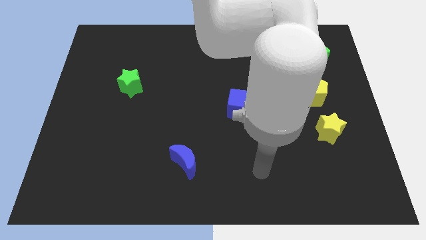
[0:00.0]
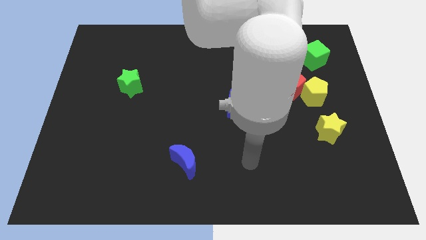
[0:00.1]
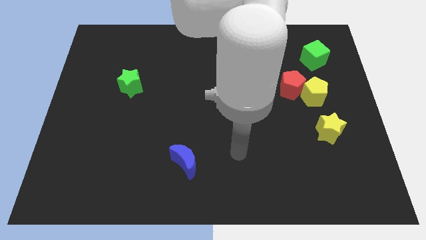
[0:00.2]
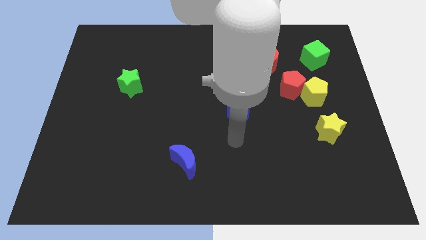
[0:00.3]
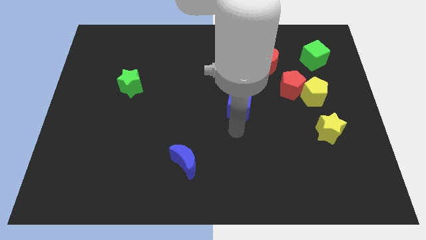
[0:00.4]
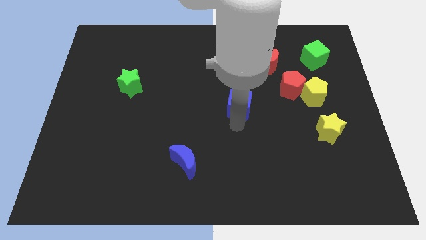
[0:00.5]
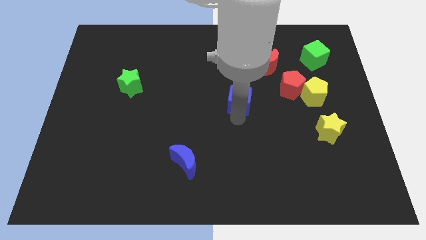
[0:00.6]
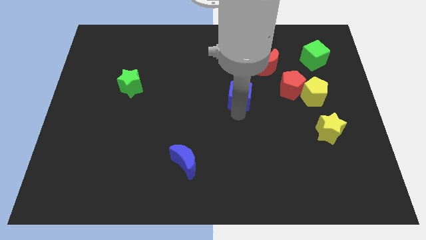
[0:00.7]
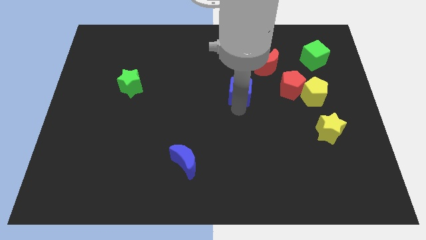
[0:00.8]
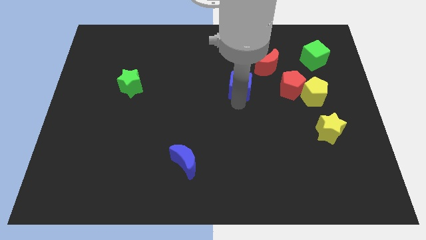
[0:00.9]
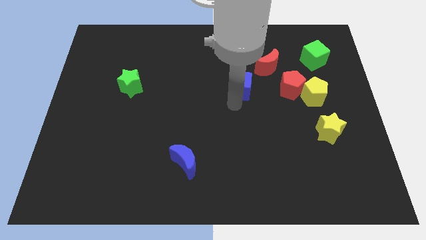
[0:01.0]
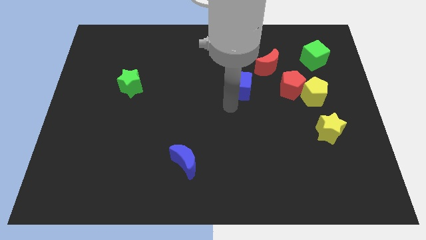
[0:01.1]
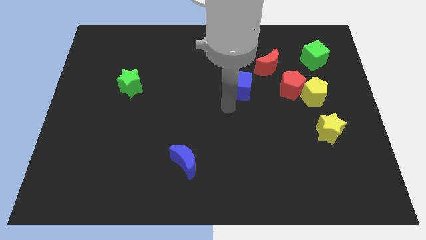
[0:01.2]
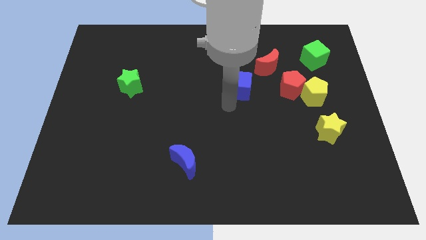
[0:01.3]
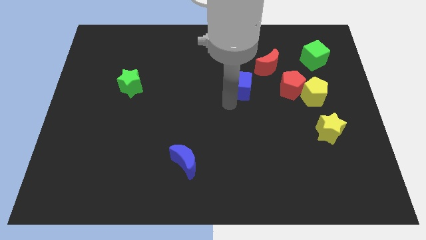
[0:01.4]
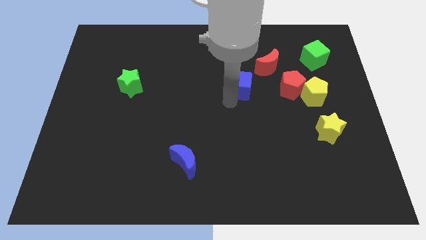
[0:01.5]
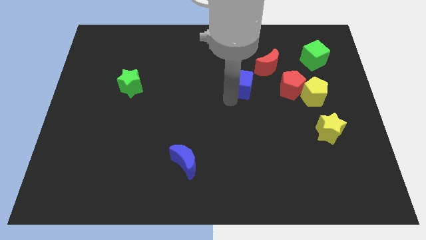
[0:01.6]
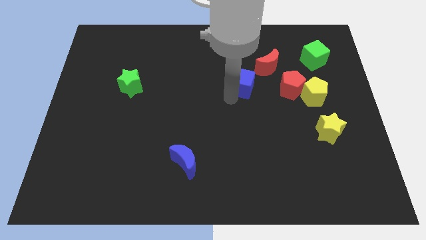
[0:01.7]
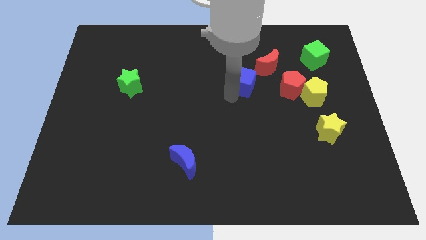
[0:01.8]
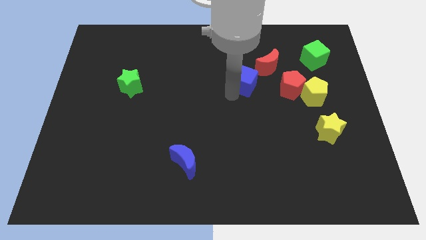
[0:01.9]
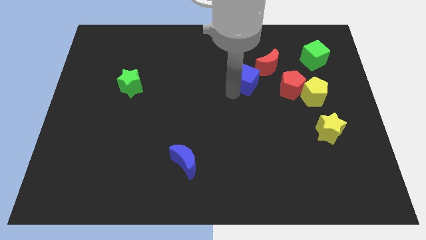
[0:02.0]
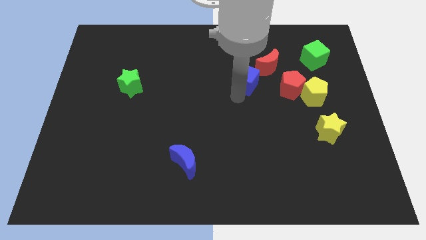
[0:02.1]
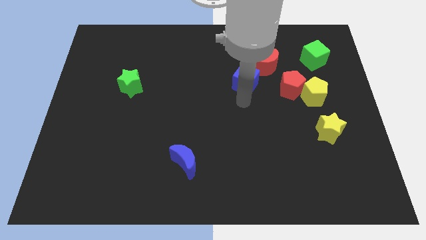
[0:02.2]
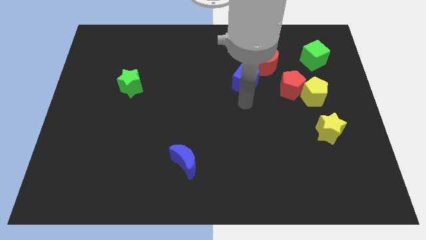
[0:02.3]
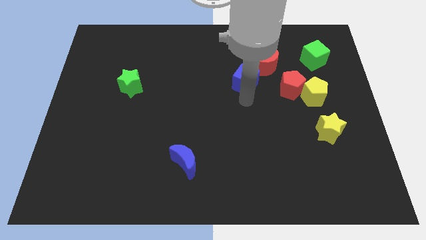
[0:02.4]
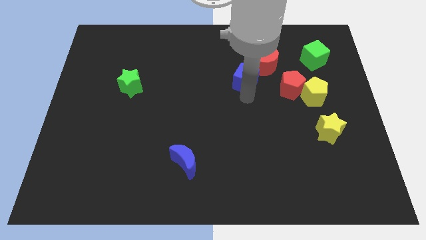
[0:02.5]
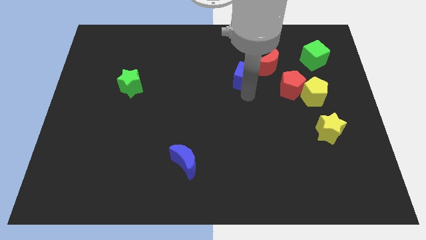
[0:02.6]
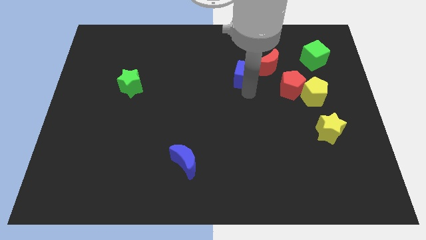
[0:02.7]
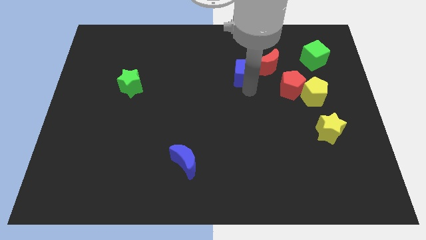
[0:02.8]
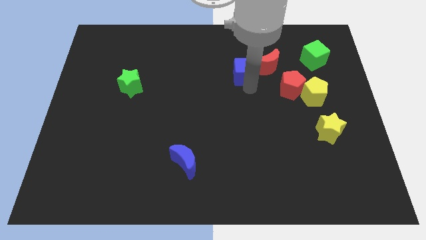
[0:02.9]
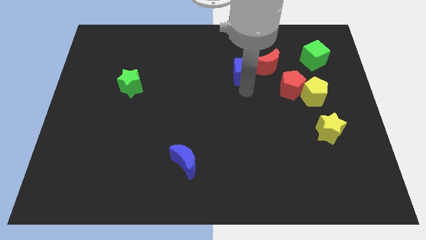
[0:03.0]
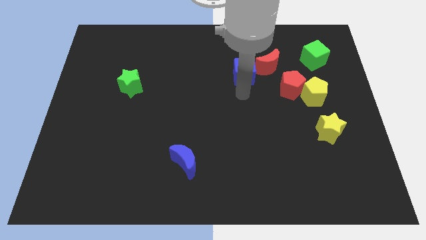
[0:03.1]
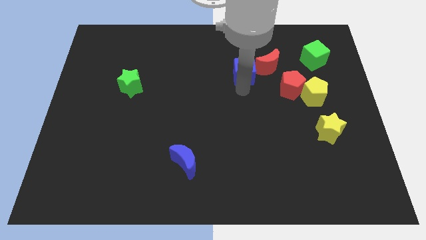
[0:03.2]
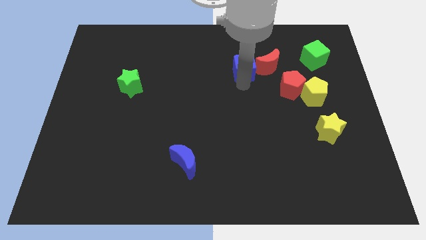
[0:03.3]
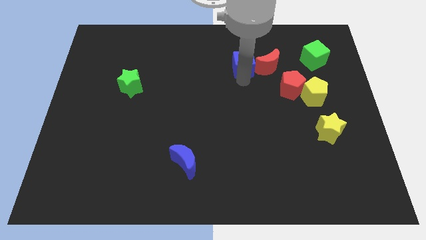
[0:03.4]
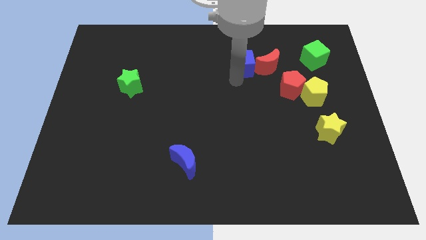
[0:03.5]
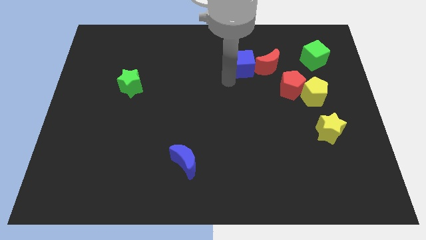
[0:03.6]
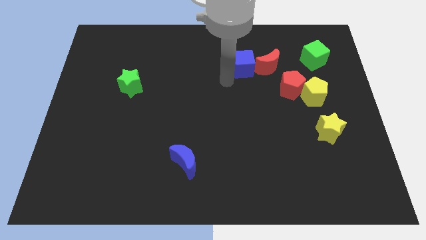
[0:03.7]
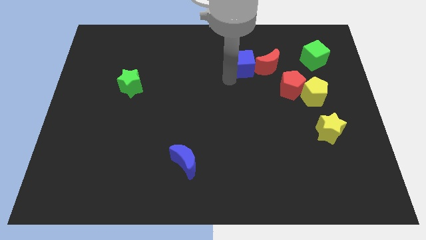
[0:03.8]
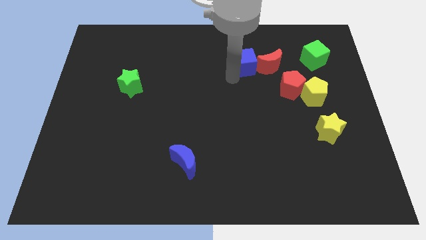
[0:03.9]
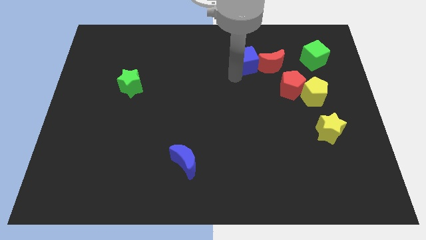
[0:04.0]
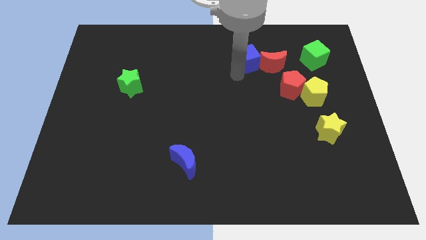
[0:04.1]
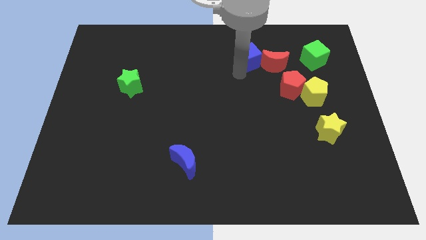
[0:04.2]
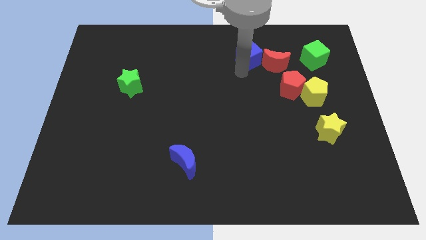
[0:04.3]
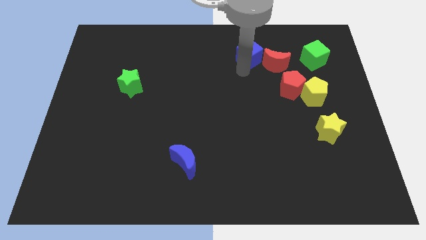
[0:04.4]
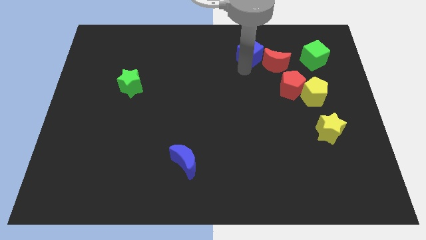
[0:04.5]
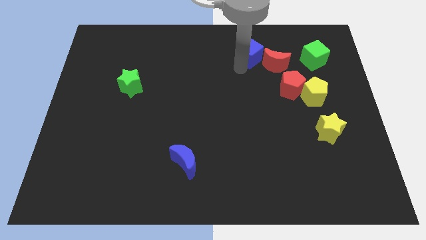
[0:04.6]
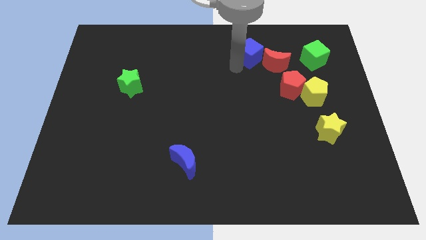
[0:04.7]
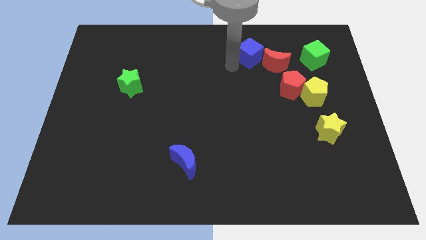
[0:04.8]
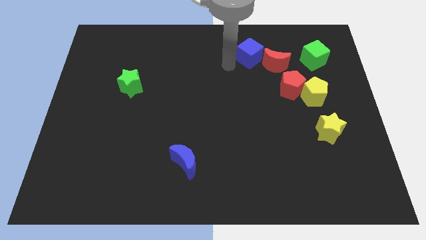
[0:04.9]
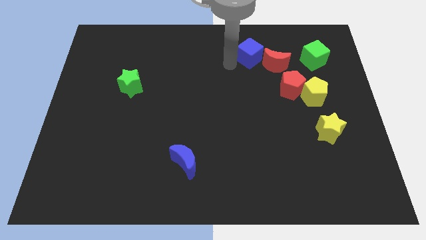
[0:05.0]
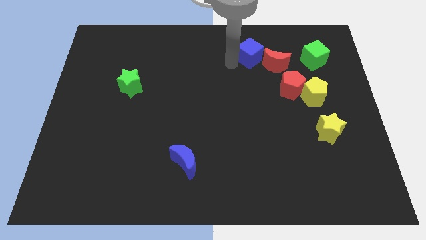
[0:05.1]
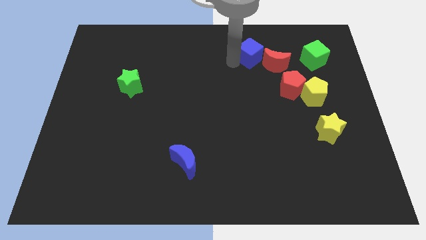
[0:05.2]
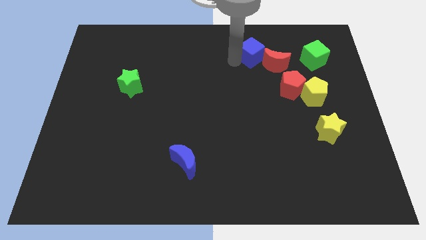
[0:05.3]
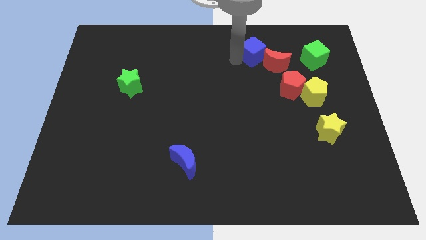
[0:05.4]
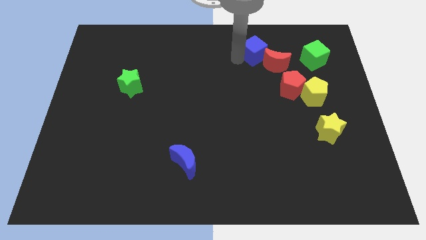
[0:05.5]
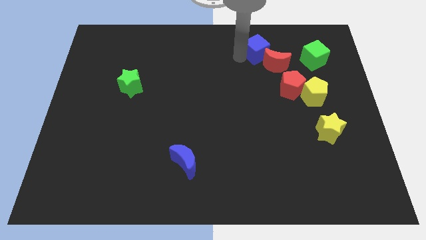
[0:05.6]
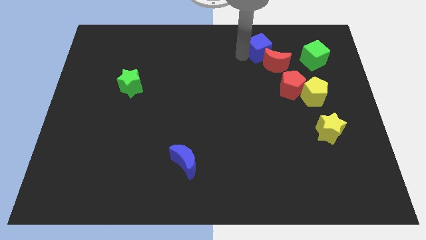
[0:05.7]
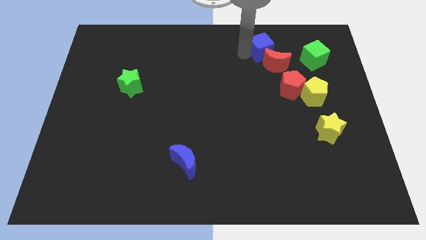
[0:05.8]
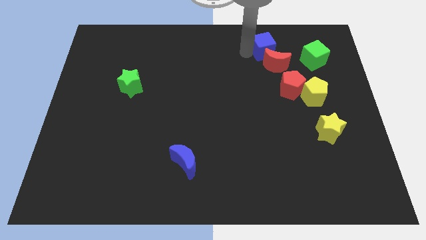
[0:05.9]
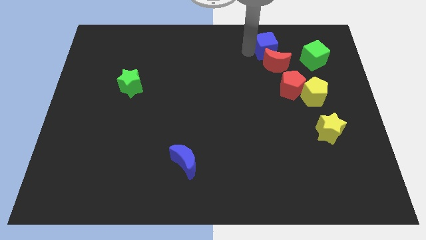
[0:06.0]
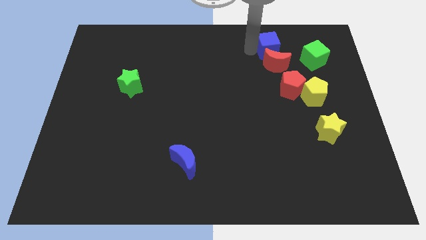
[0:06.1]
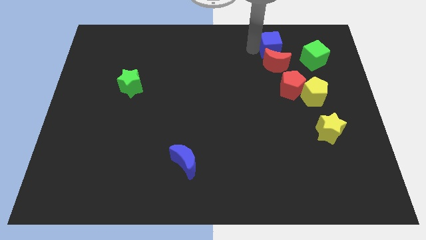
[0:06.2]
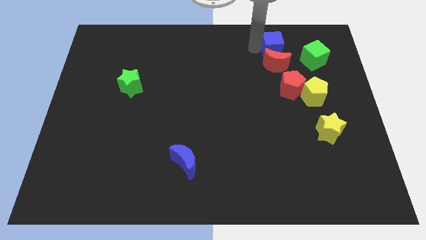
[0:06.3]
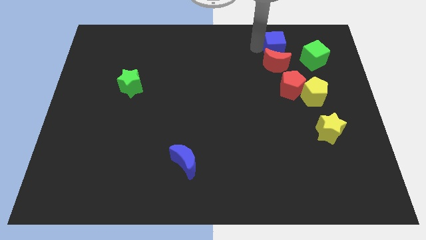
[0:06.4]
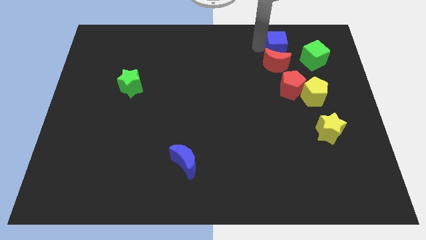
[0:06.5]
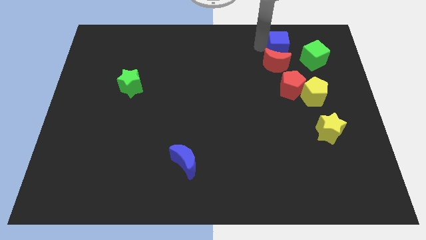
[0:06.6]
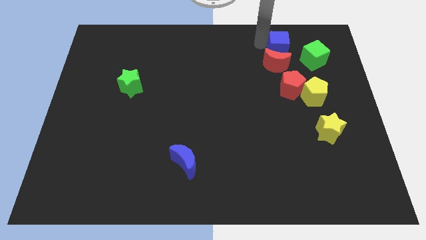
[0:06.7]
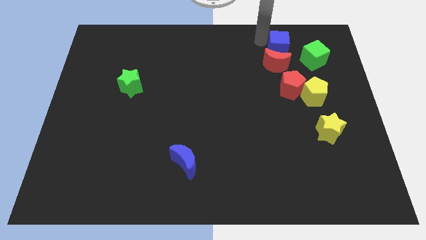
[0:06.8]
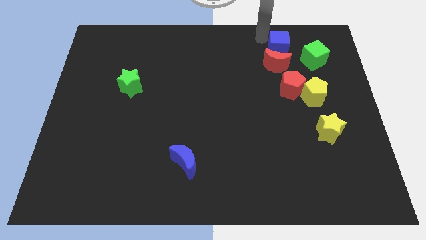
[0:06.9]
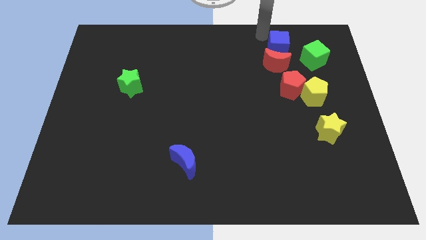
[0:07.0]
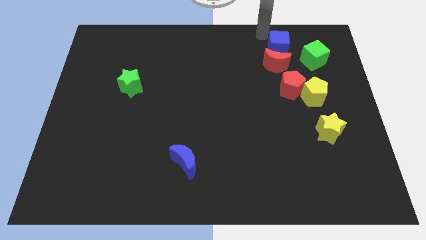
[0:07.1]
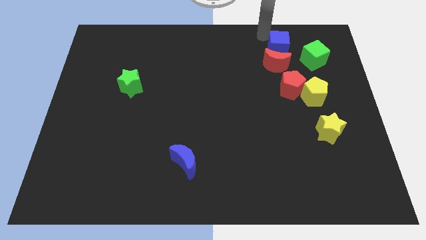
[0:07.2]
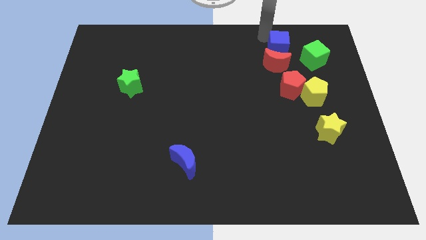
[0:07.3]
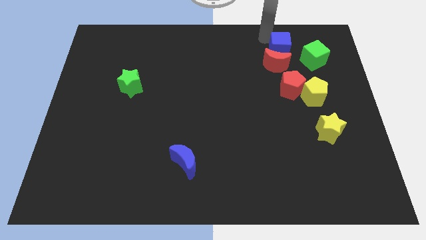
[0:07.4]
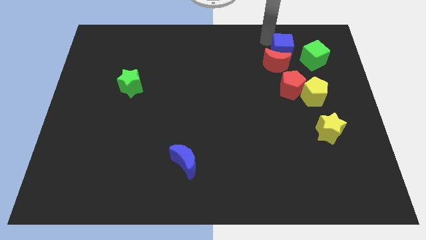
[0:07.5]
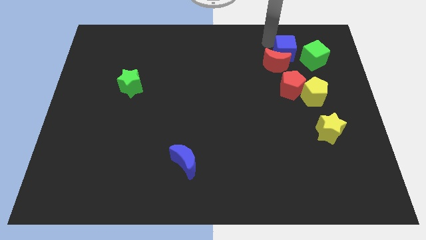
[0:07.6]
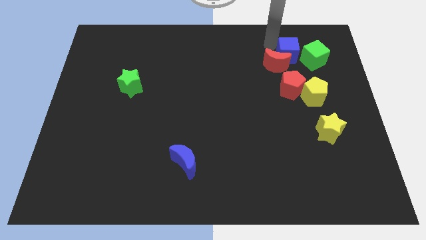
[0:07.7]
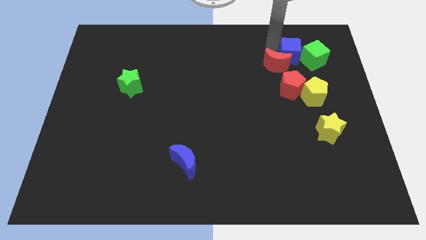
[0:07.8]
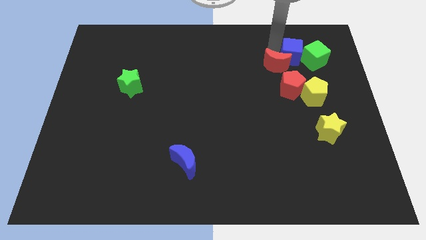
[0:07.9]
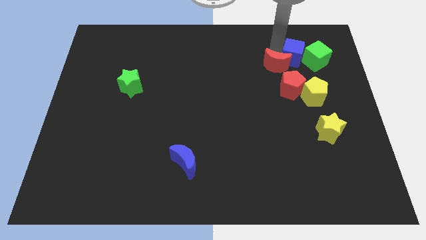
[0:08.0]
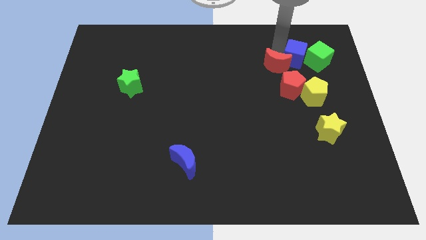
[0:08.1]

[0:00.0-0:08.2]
put the blue cube to the bottom left side of the green cube
